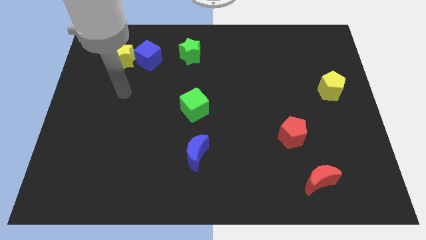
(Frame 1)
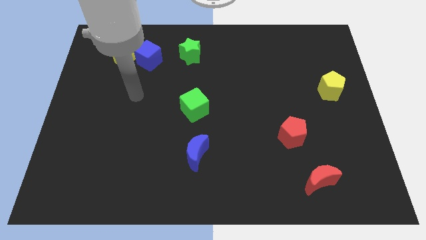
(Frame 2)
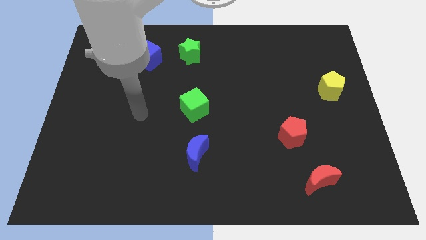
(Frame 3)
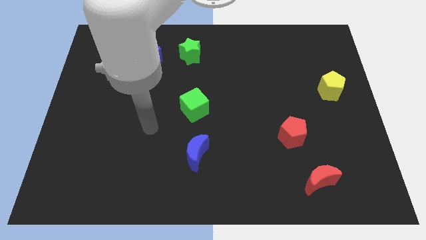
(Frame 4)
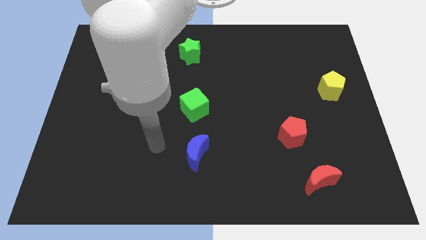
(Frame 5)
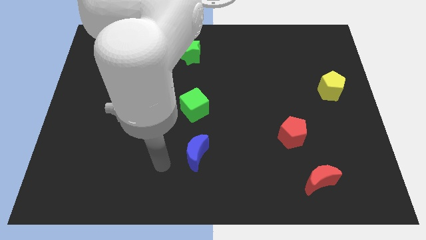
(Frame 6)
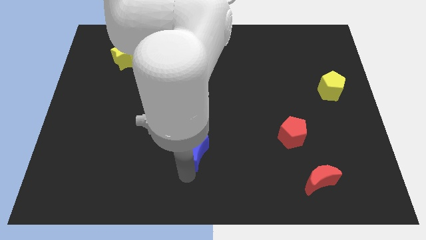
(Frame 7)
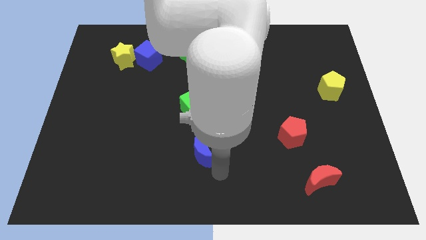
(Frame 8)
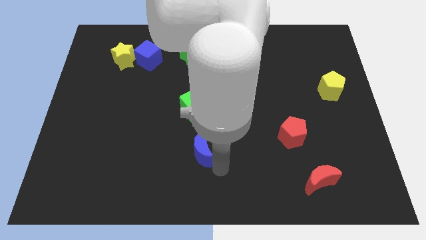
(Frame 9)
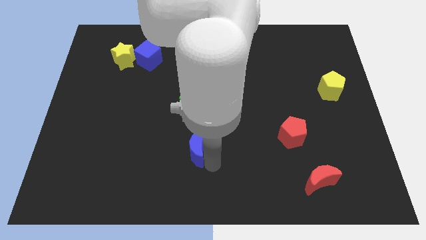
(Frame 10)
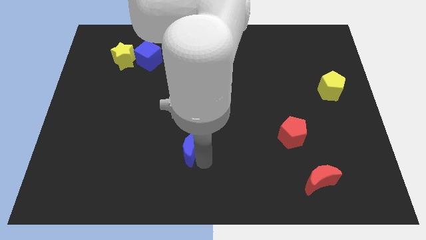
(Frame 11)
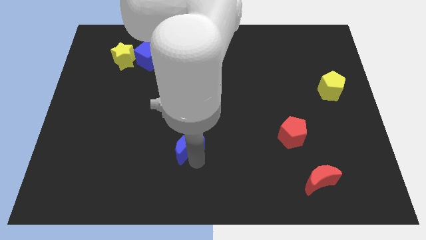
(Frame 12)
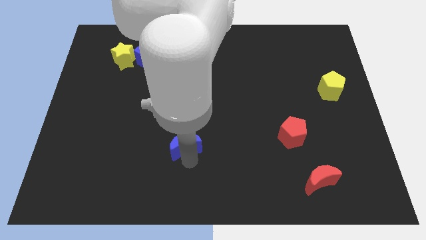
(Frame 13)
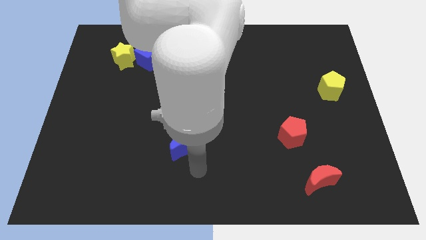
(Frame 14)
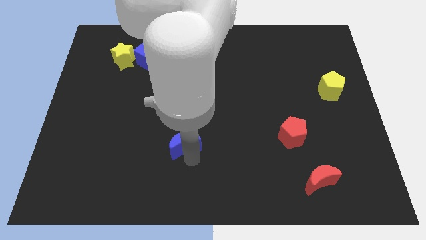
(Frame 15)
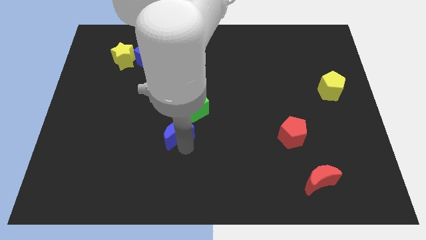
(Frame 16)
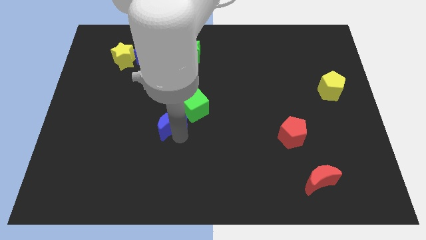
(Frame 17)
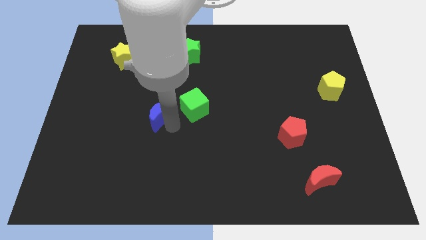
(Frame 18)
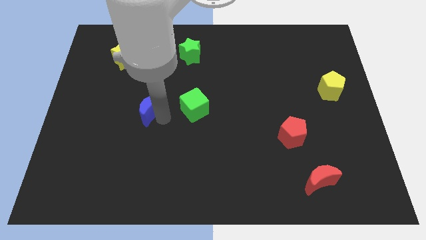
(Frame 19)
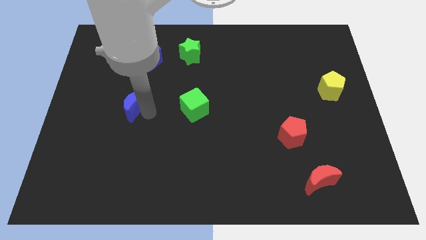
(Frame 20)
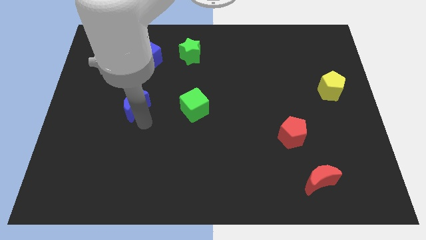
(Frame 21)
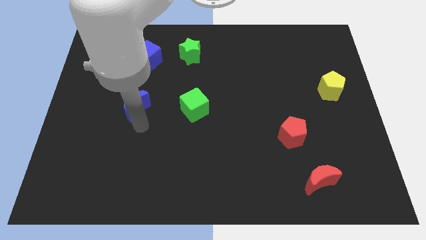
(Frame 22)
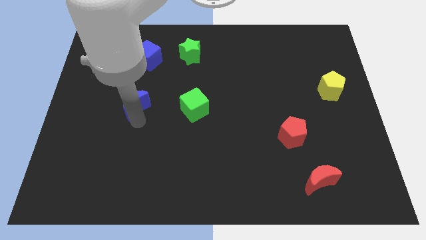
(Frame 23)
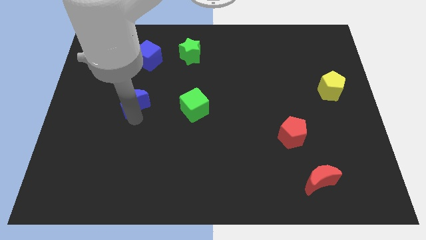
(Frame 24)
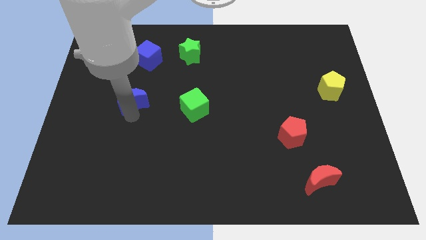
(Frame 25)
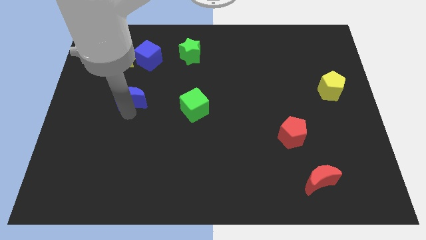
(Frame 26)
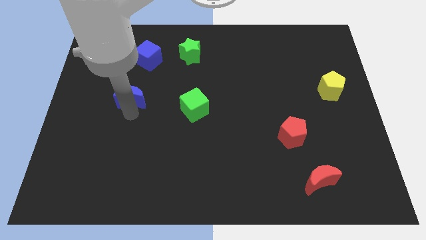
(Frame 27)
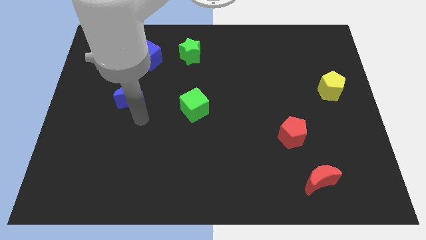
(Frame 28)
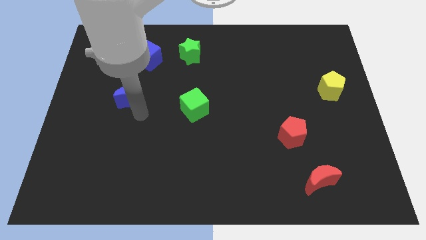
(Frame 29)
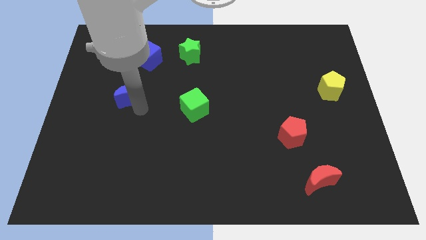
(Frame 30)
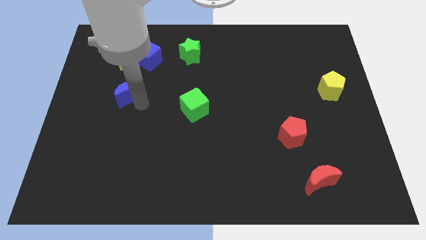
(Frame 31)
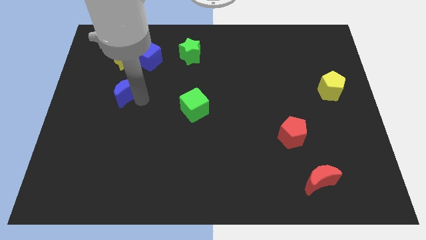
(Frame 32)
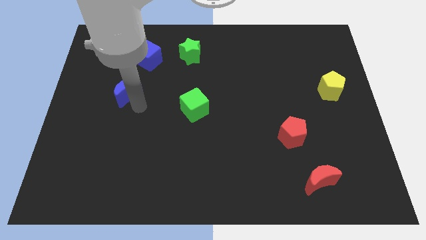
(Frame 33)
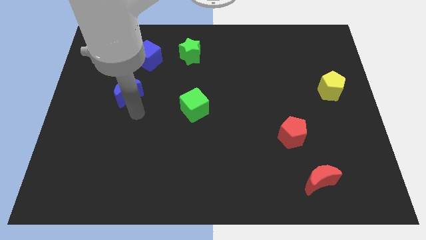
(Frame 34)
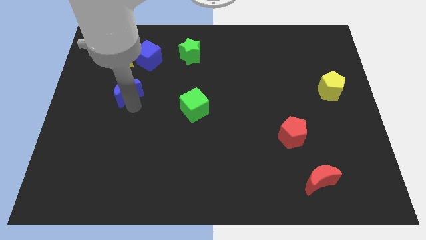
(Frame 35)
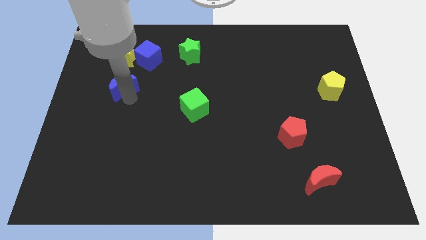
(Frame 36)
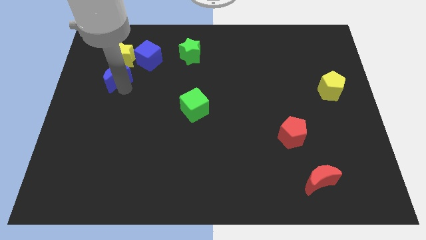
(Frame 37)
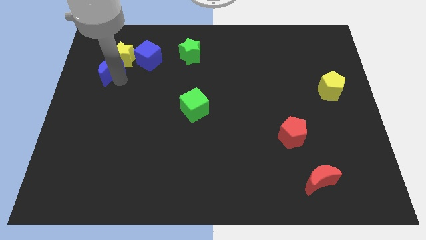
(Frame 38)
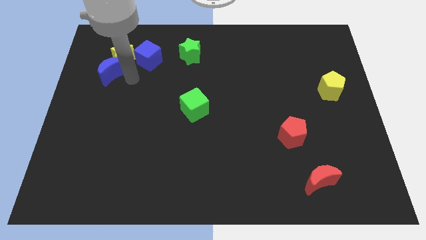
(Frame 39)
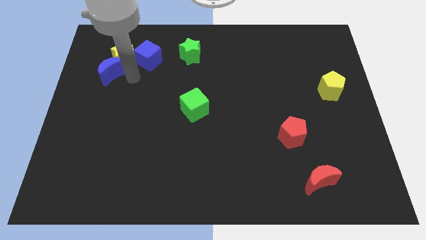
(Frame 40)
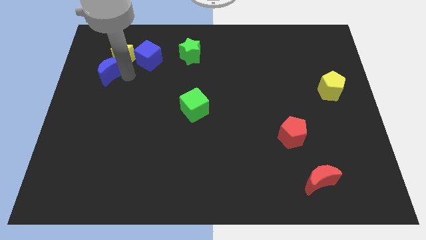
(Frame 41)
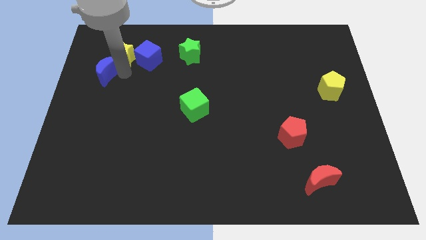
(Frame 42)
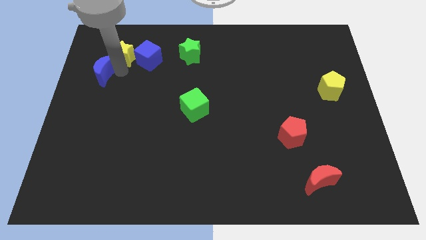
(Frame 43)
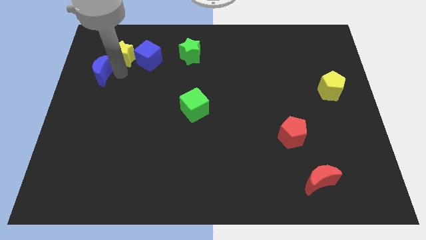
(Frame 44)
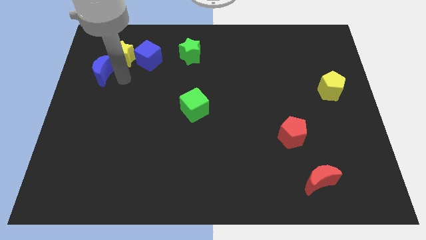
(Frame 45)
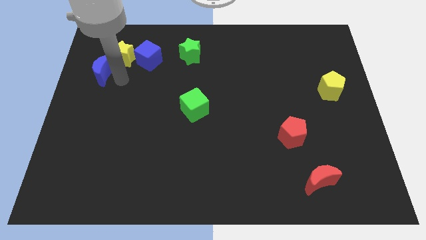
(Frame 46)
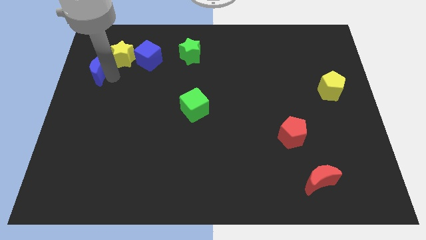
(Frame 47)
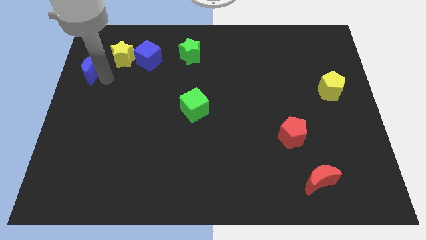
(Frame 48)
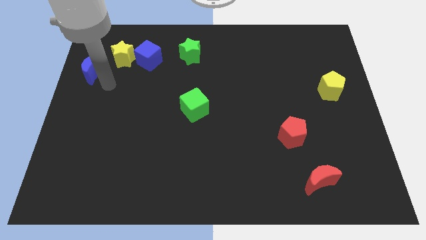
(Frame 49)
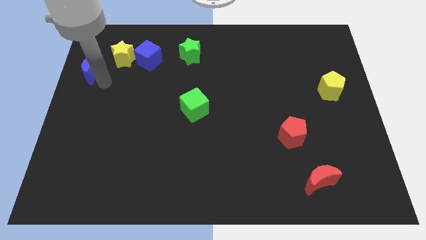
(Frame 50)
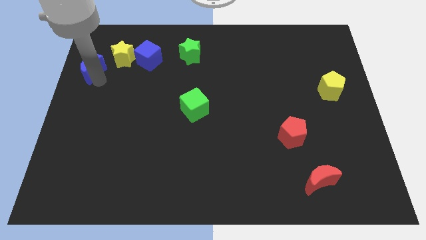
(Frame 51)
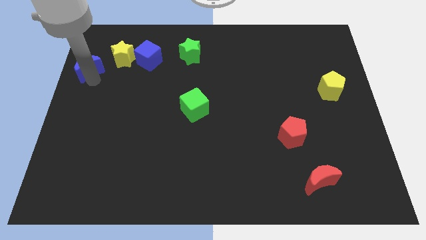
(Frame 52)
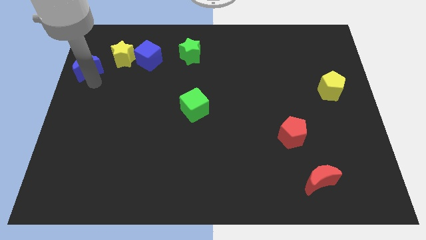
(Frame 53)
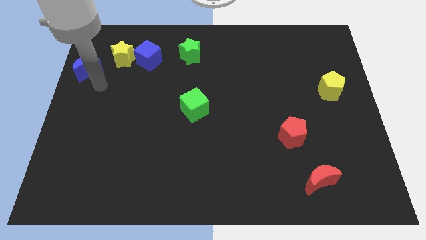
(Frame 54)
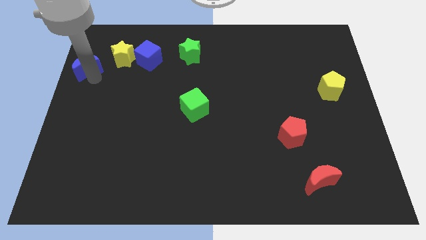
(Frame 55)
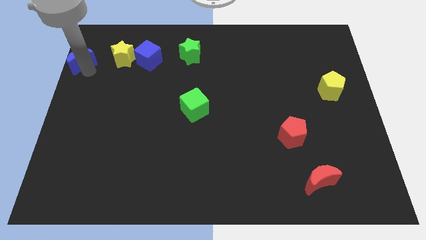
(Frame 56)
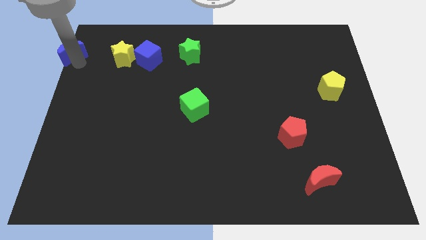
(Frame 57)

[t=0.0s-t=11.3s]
put the blue moon to the upper left corner

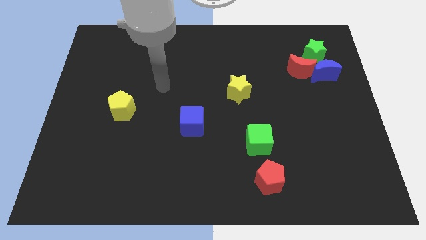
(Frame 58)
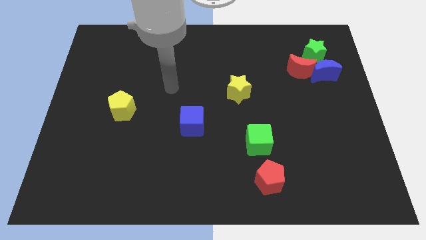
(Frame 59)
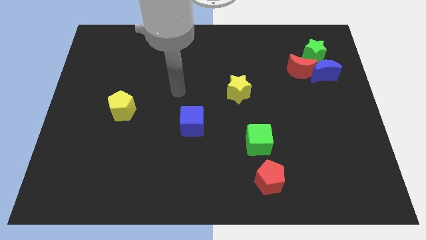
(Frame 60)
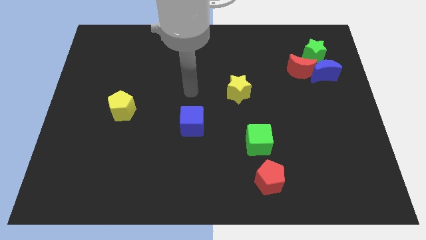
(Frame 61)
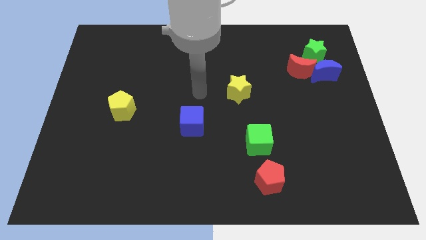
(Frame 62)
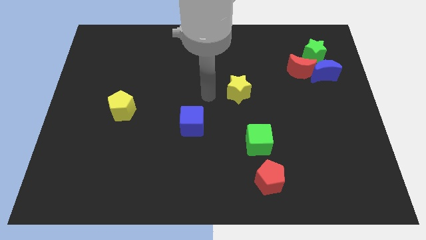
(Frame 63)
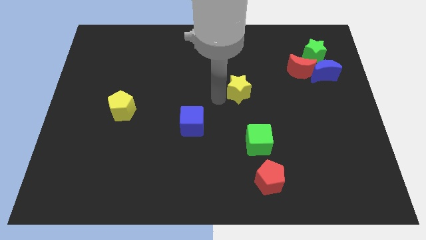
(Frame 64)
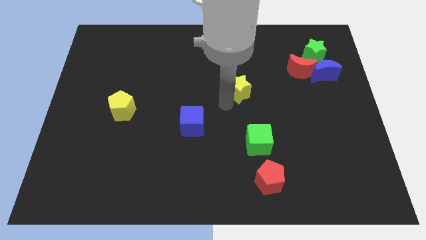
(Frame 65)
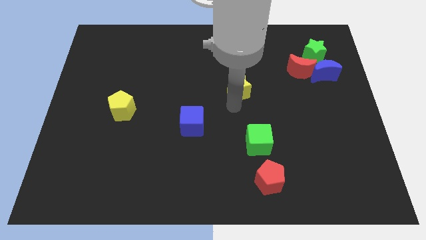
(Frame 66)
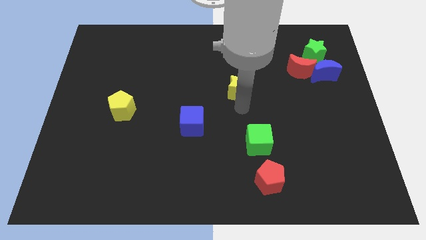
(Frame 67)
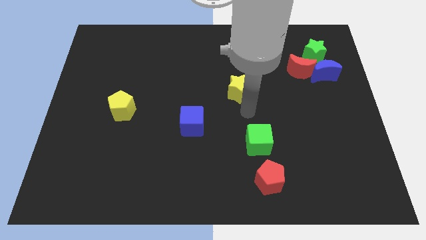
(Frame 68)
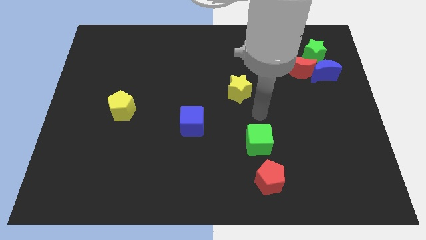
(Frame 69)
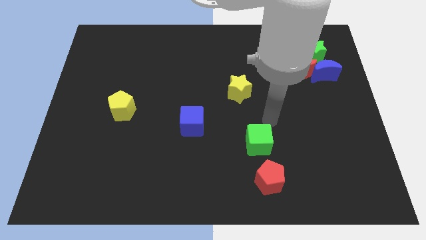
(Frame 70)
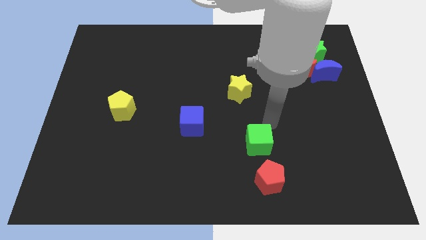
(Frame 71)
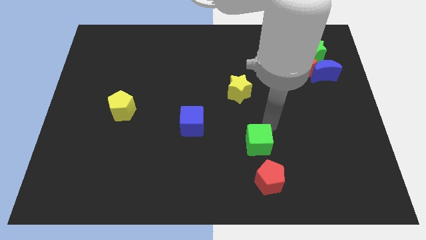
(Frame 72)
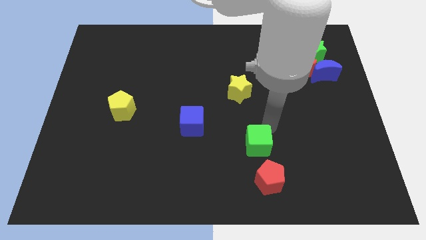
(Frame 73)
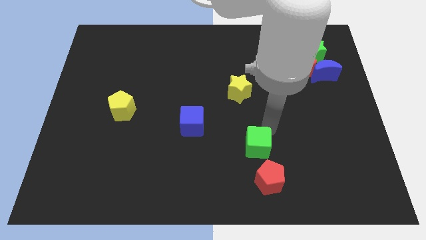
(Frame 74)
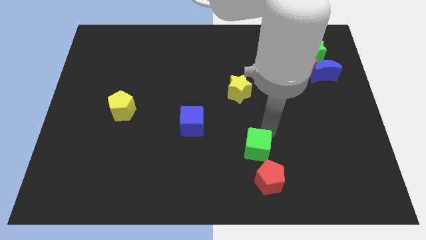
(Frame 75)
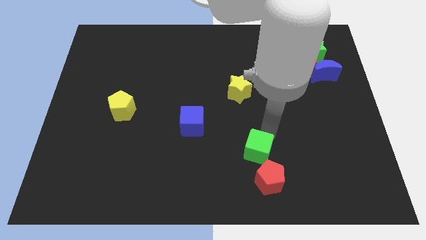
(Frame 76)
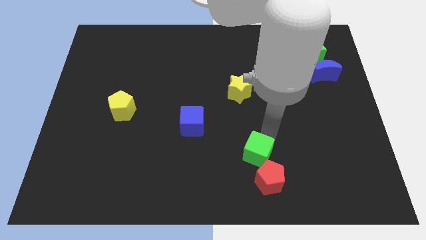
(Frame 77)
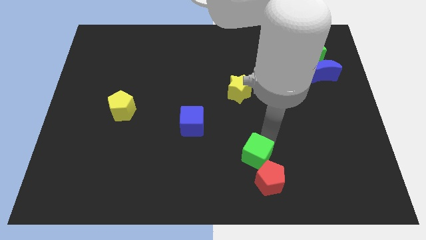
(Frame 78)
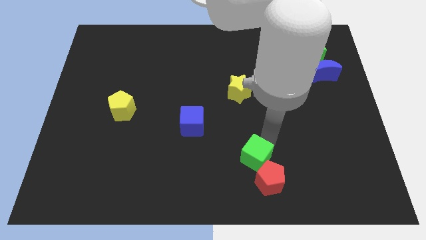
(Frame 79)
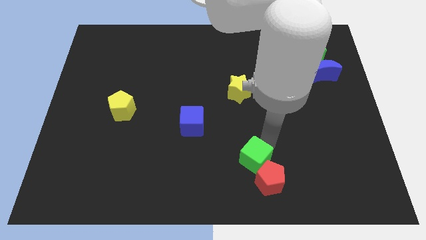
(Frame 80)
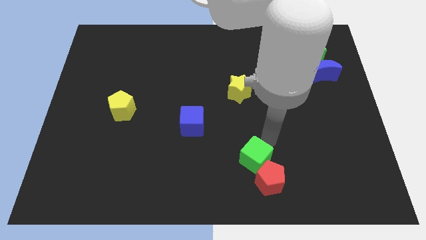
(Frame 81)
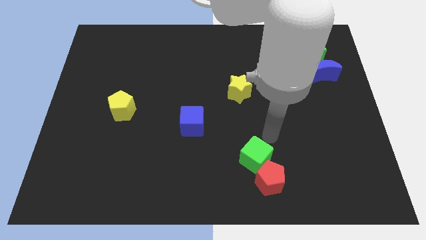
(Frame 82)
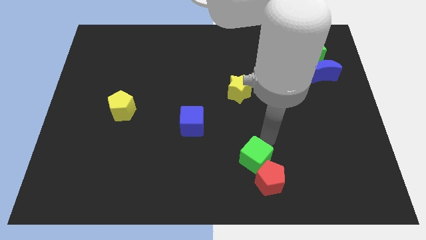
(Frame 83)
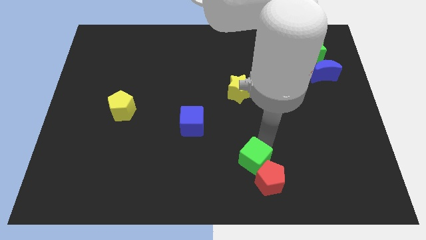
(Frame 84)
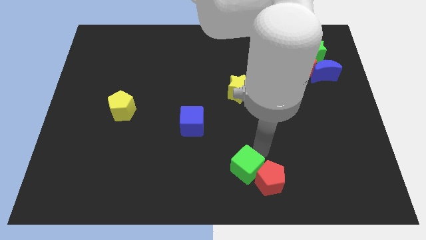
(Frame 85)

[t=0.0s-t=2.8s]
put the green cube to the bottom side
